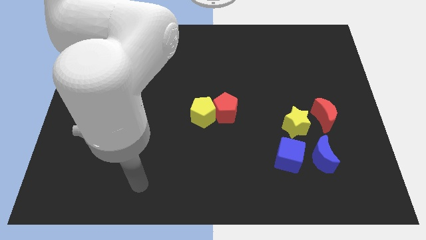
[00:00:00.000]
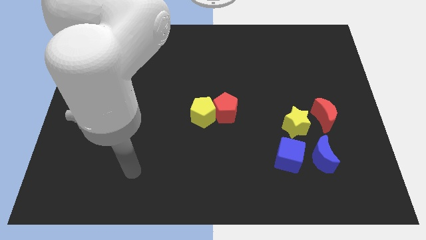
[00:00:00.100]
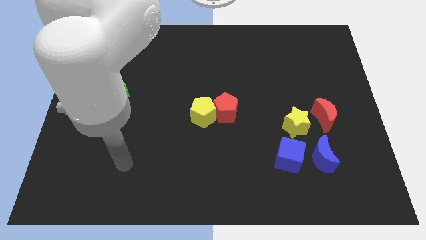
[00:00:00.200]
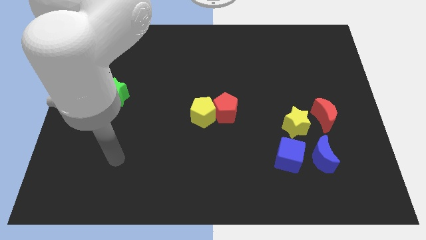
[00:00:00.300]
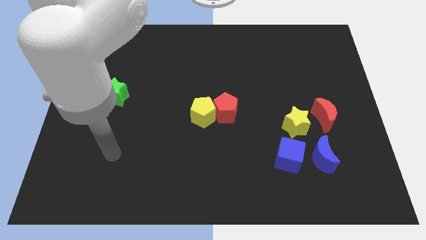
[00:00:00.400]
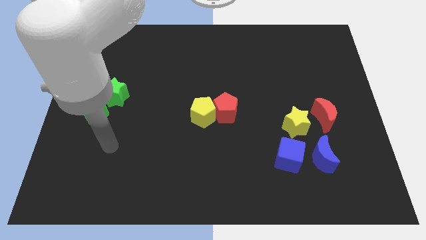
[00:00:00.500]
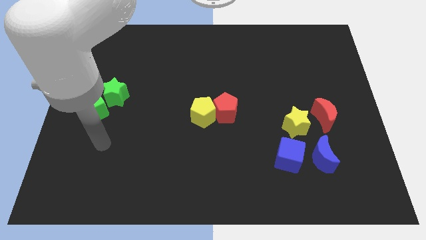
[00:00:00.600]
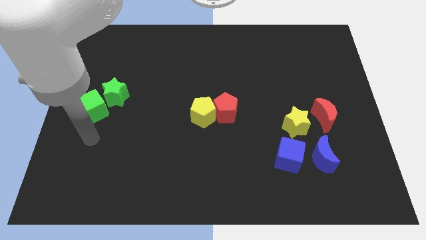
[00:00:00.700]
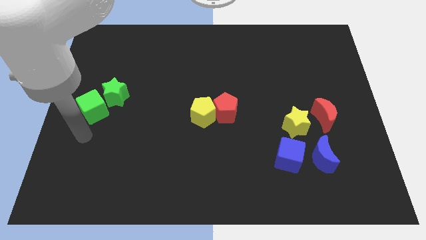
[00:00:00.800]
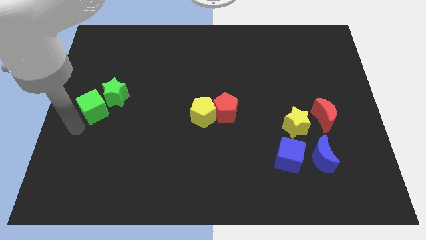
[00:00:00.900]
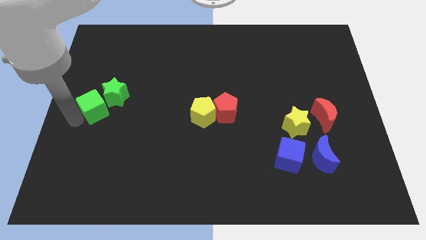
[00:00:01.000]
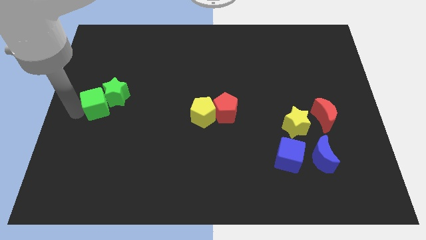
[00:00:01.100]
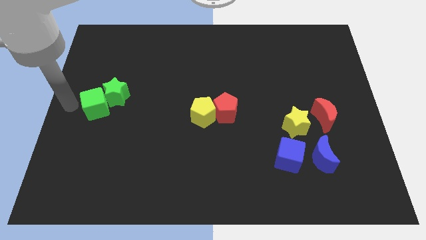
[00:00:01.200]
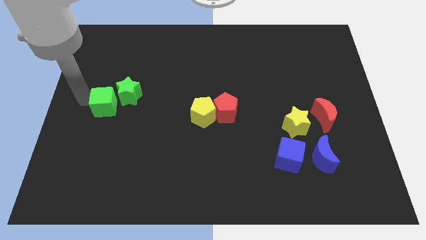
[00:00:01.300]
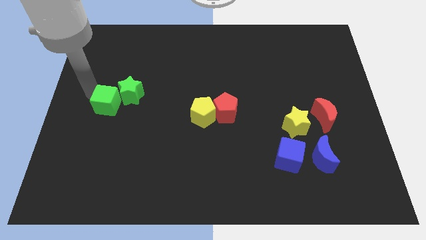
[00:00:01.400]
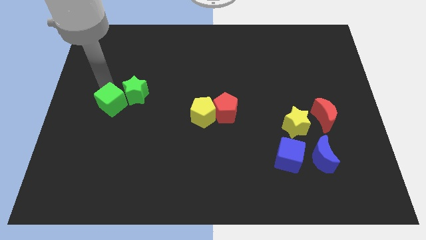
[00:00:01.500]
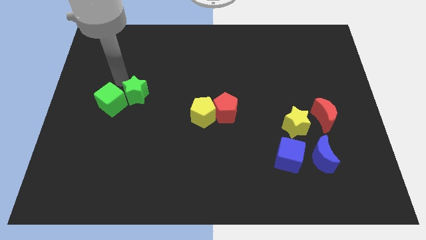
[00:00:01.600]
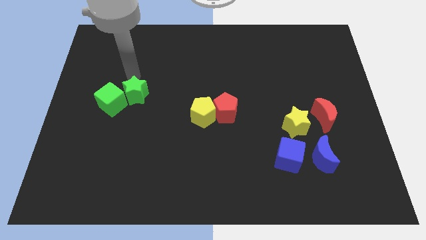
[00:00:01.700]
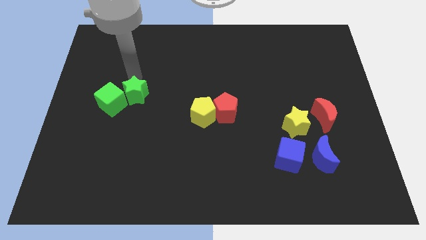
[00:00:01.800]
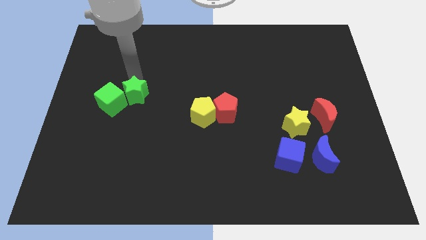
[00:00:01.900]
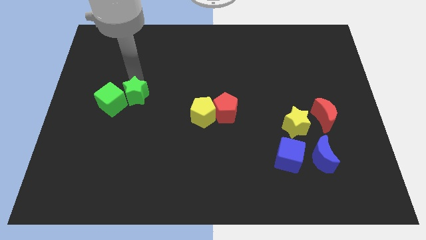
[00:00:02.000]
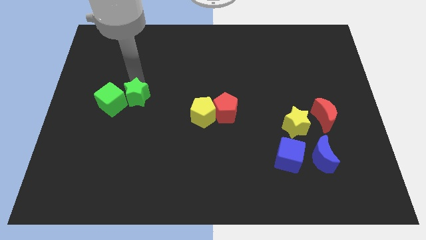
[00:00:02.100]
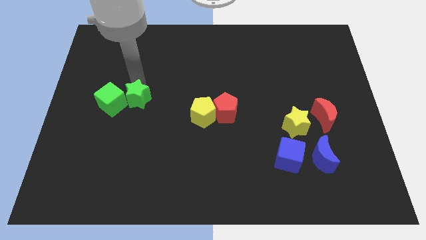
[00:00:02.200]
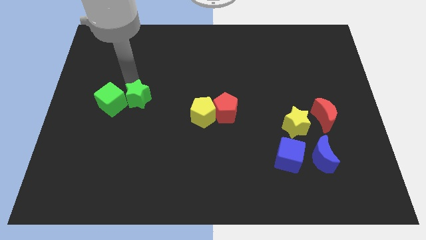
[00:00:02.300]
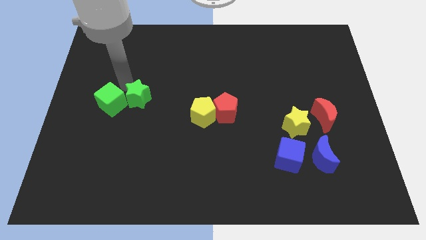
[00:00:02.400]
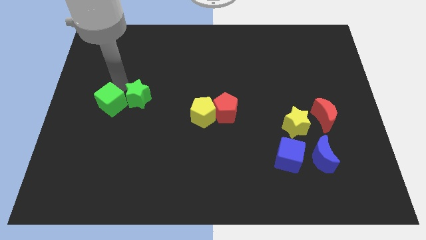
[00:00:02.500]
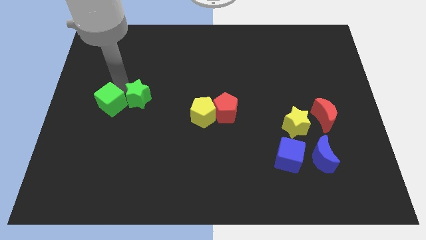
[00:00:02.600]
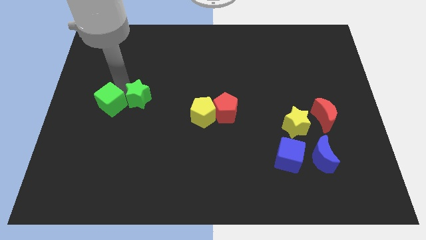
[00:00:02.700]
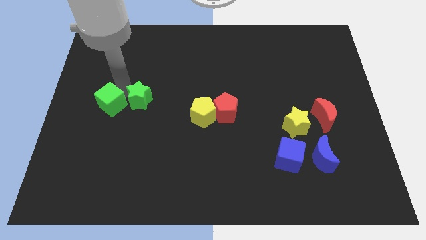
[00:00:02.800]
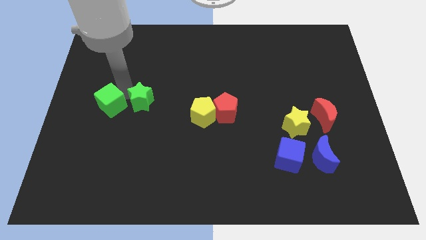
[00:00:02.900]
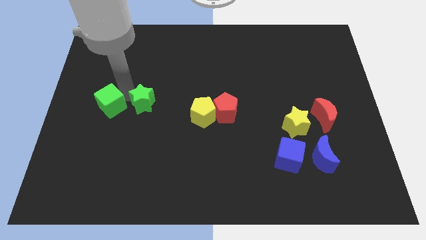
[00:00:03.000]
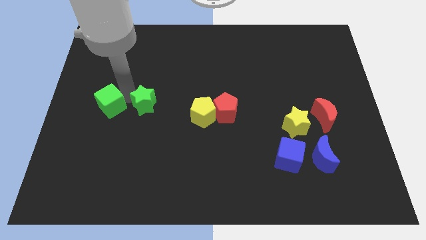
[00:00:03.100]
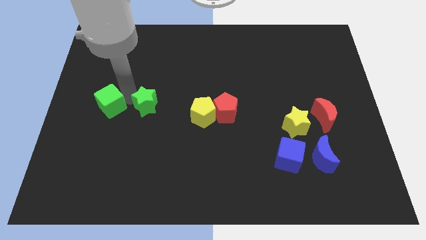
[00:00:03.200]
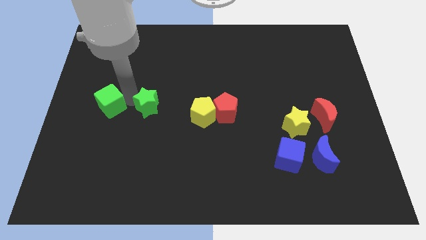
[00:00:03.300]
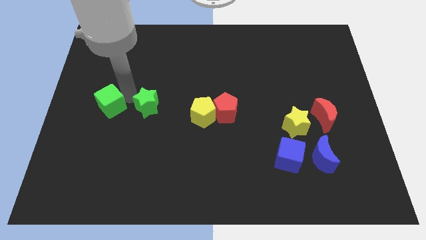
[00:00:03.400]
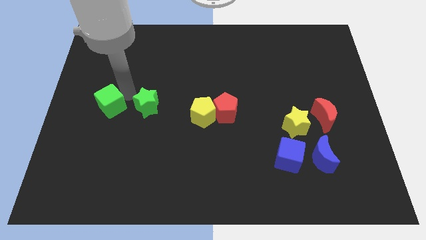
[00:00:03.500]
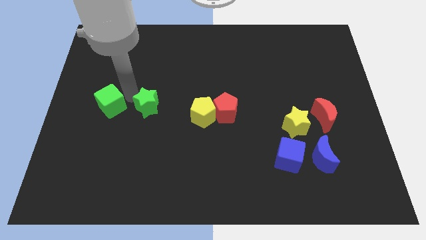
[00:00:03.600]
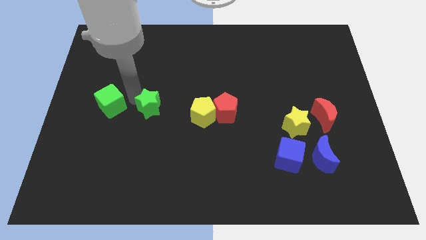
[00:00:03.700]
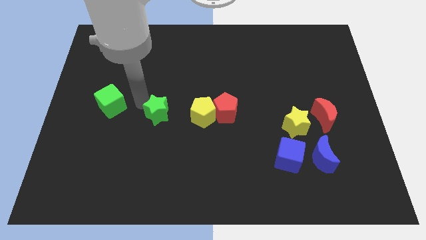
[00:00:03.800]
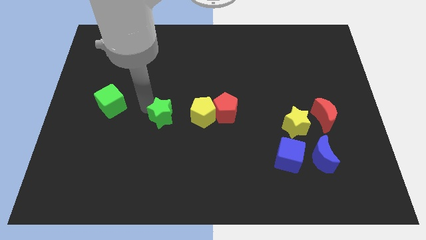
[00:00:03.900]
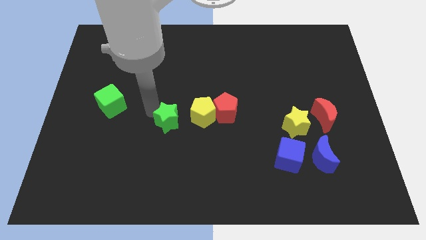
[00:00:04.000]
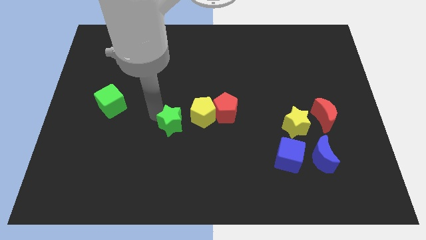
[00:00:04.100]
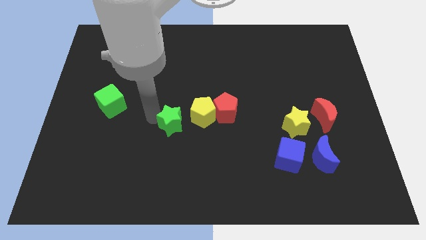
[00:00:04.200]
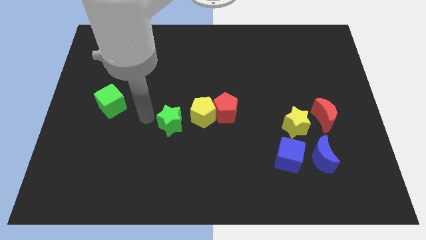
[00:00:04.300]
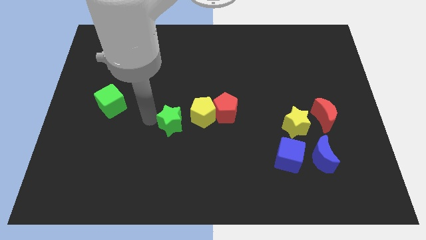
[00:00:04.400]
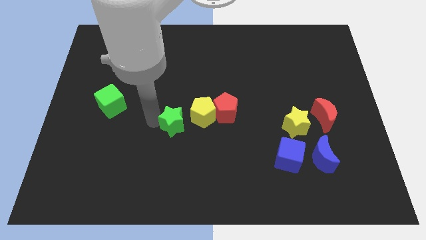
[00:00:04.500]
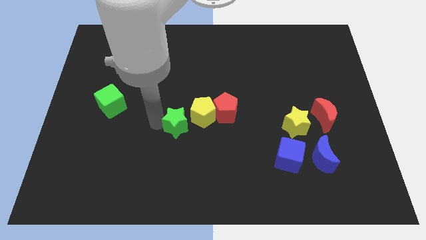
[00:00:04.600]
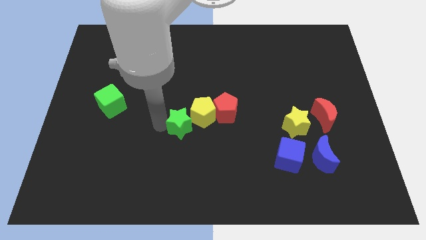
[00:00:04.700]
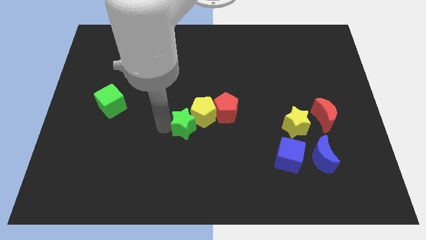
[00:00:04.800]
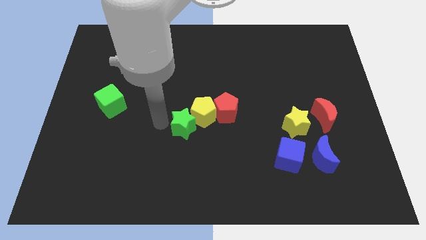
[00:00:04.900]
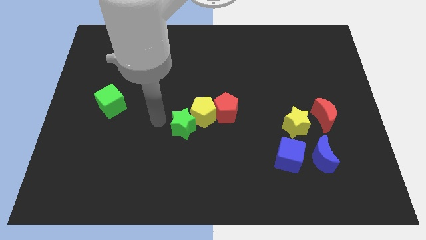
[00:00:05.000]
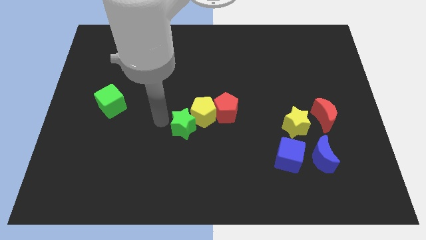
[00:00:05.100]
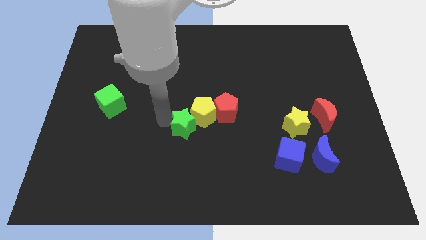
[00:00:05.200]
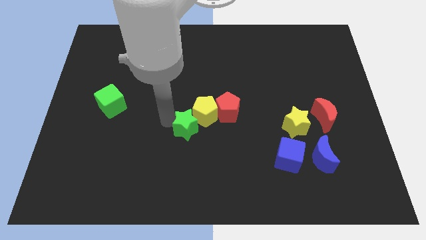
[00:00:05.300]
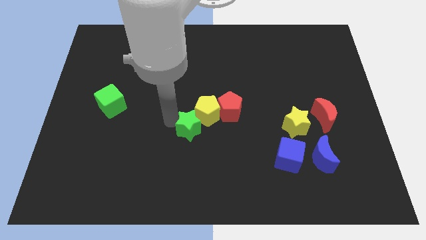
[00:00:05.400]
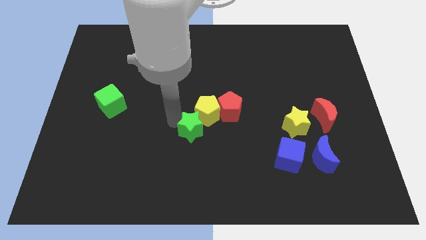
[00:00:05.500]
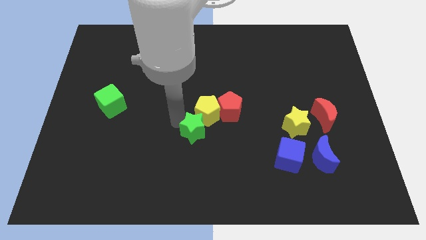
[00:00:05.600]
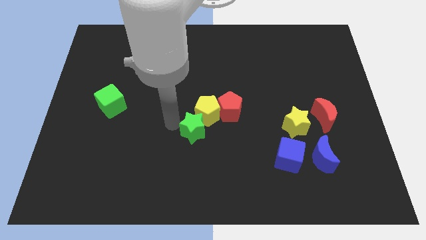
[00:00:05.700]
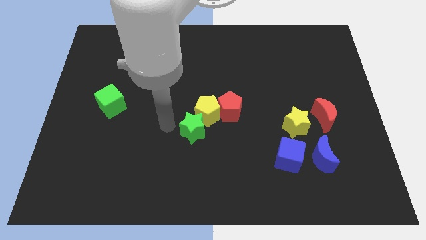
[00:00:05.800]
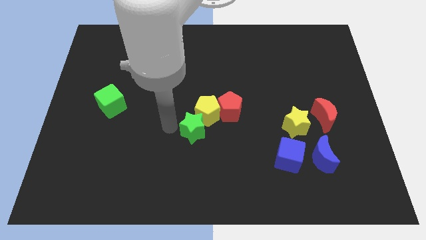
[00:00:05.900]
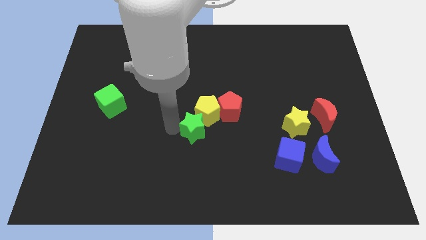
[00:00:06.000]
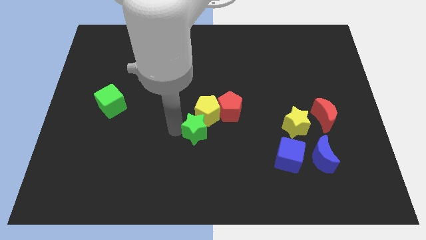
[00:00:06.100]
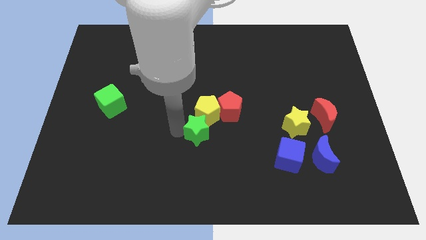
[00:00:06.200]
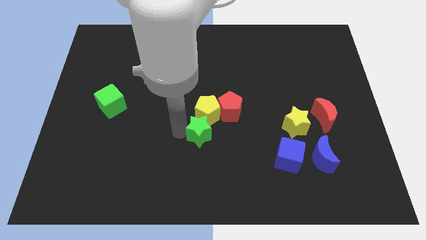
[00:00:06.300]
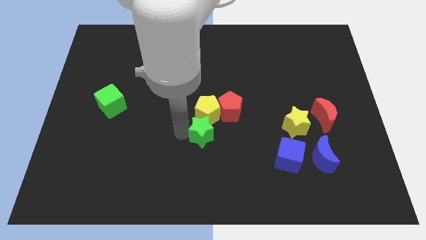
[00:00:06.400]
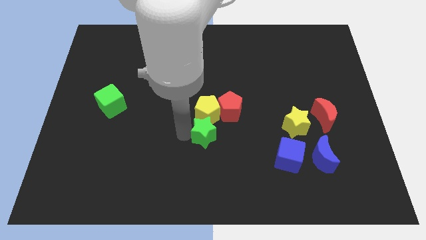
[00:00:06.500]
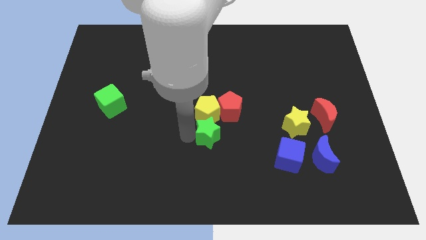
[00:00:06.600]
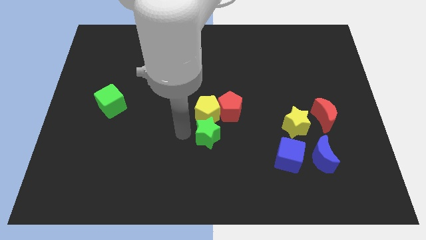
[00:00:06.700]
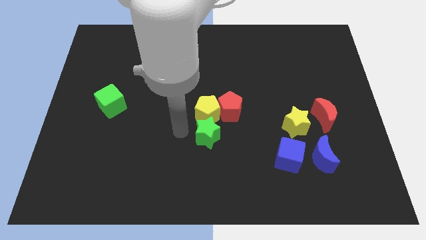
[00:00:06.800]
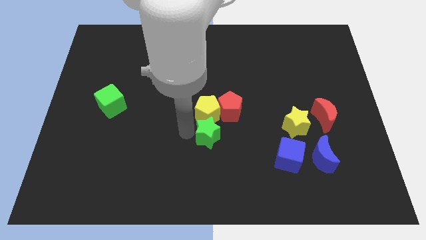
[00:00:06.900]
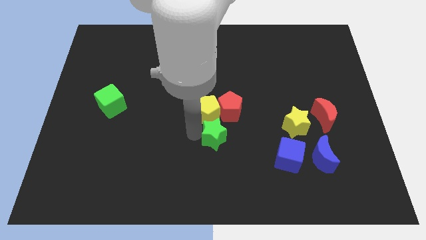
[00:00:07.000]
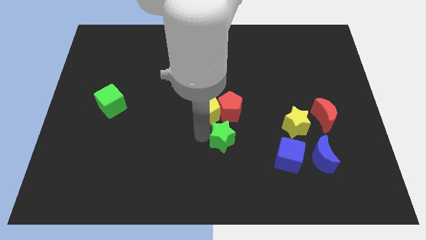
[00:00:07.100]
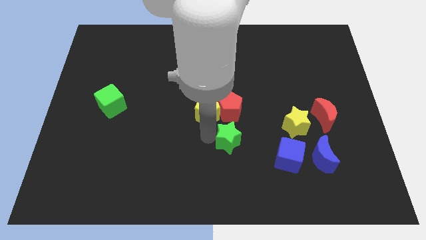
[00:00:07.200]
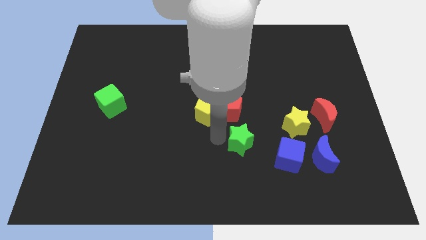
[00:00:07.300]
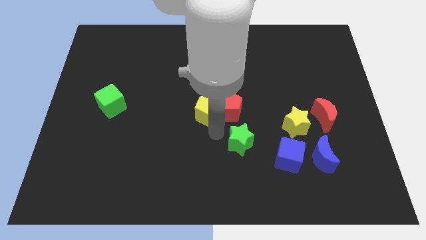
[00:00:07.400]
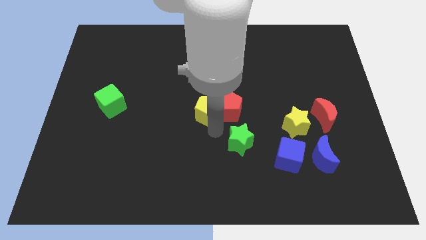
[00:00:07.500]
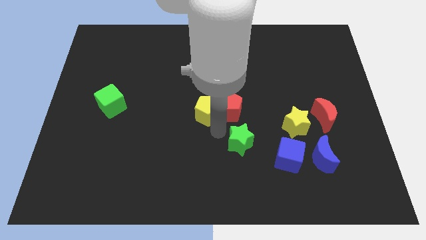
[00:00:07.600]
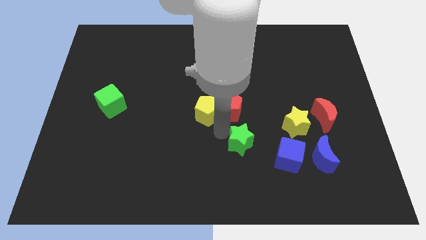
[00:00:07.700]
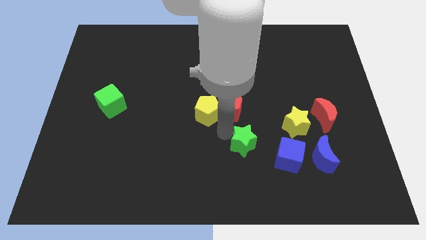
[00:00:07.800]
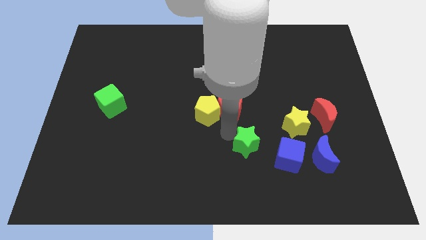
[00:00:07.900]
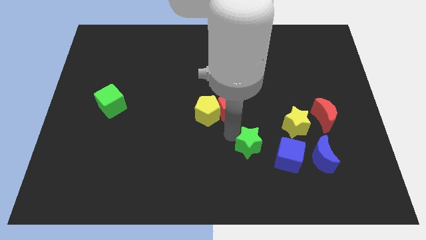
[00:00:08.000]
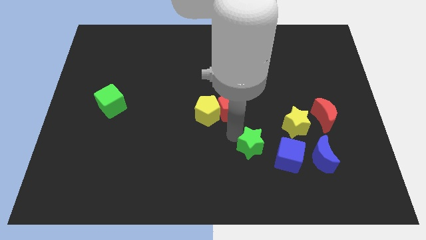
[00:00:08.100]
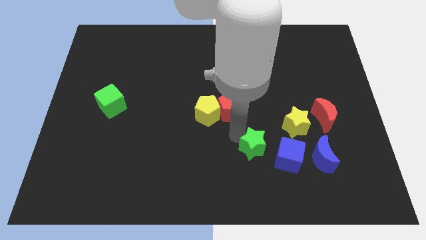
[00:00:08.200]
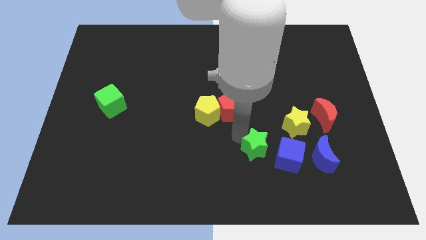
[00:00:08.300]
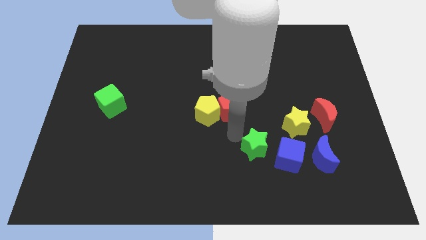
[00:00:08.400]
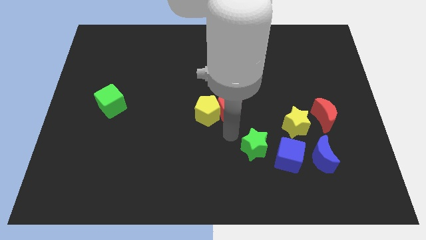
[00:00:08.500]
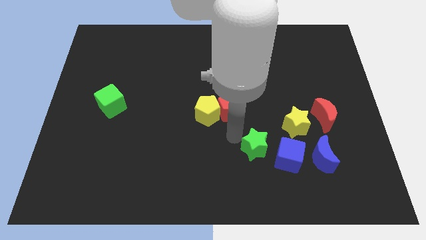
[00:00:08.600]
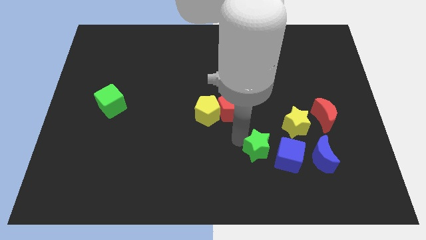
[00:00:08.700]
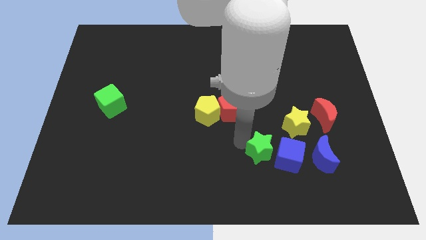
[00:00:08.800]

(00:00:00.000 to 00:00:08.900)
put the green star towards the blue cube
